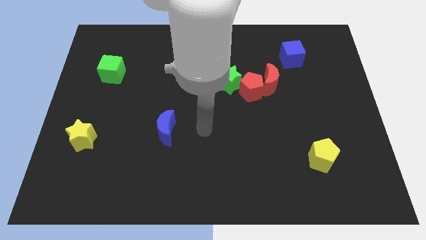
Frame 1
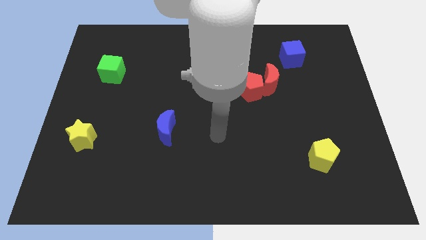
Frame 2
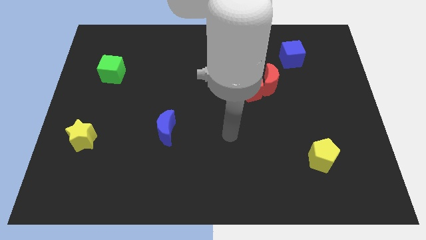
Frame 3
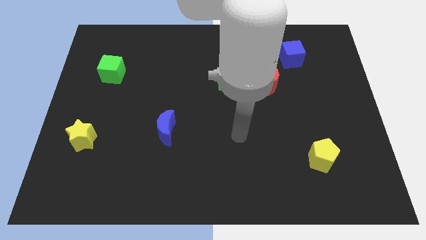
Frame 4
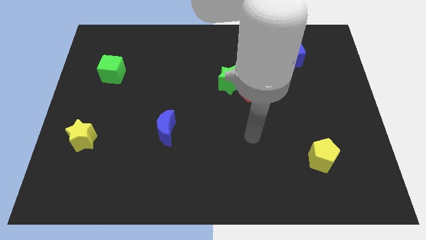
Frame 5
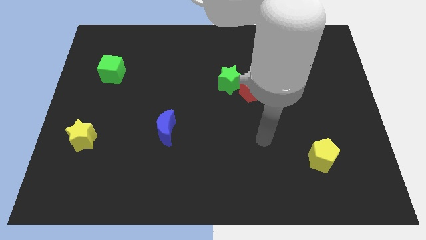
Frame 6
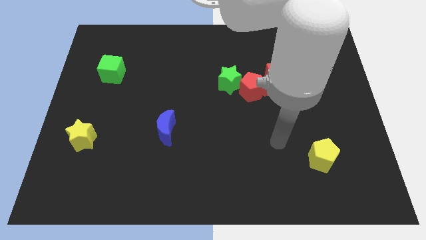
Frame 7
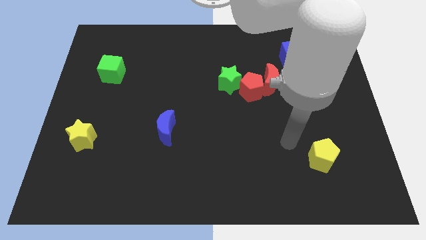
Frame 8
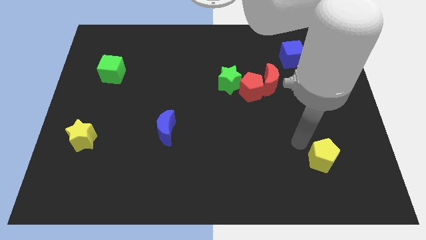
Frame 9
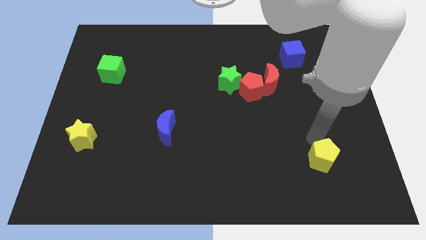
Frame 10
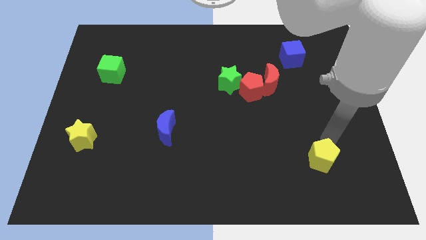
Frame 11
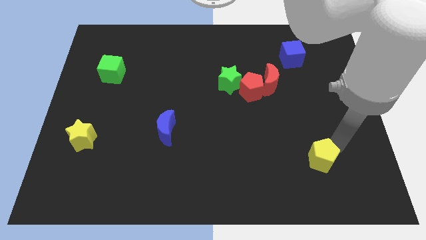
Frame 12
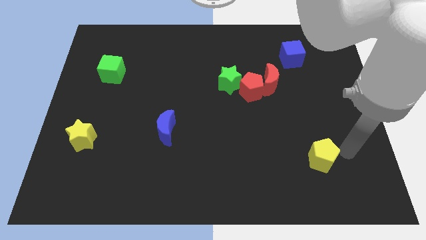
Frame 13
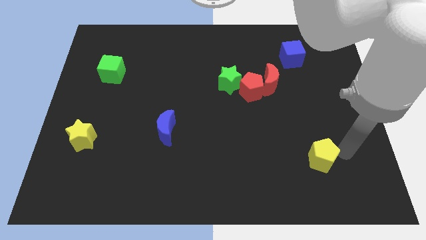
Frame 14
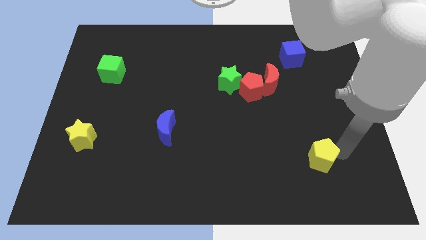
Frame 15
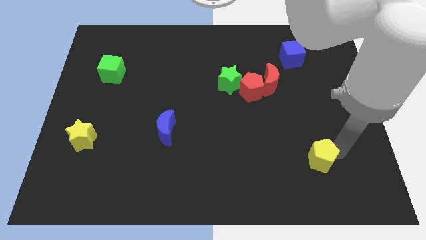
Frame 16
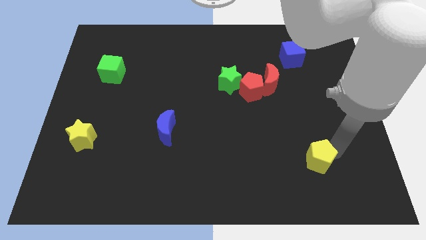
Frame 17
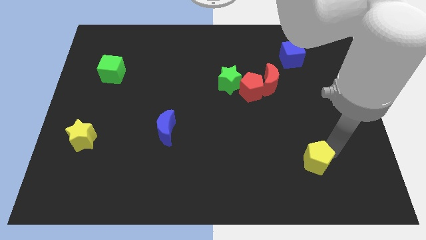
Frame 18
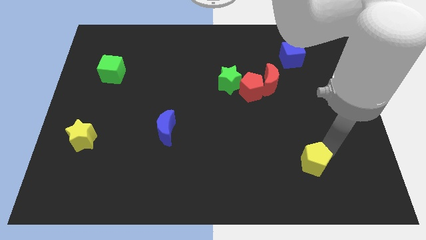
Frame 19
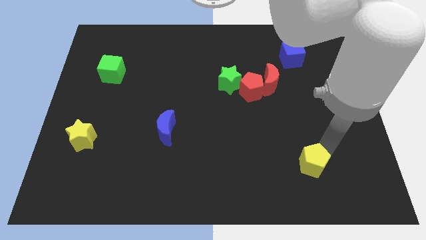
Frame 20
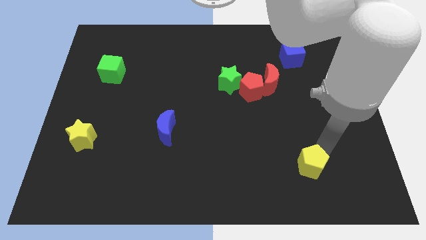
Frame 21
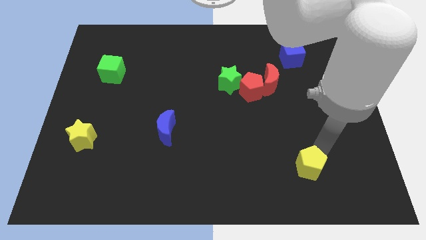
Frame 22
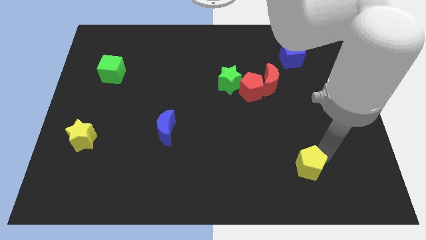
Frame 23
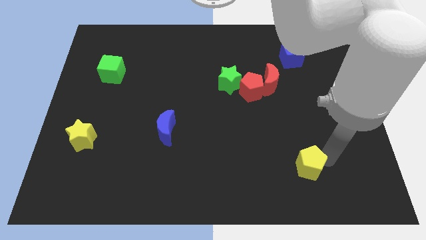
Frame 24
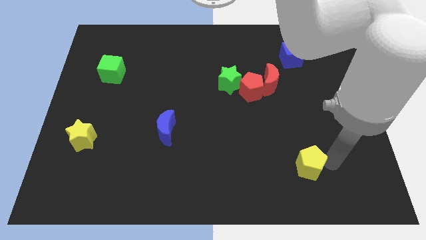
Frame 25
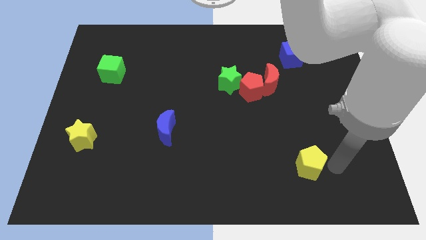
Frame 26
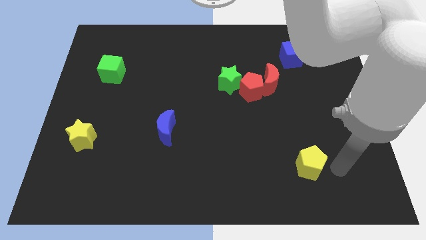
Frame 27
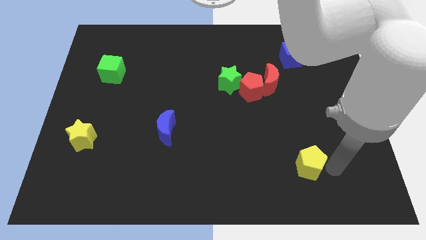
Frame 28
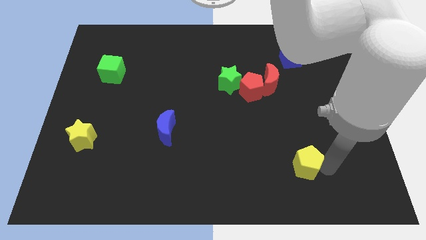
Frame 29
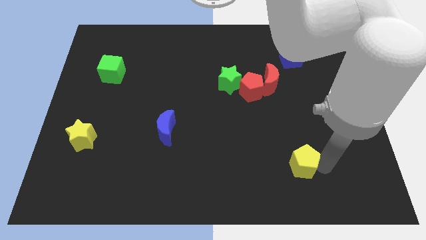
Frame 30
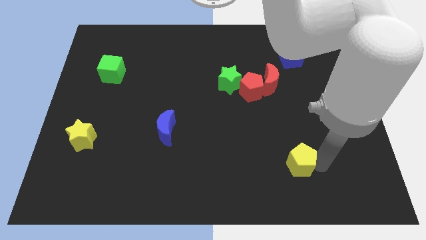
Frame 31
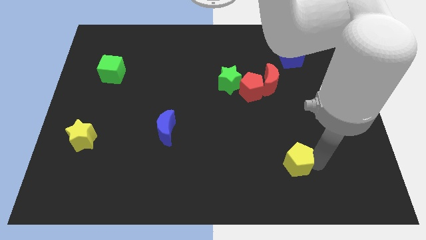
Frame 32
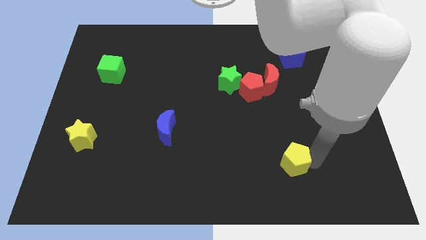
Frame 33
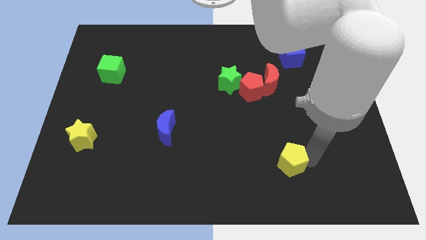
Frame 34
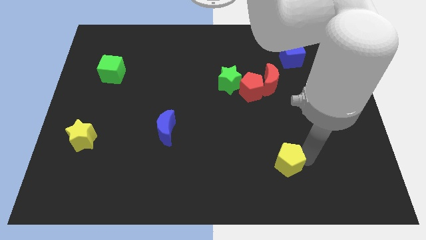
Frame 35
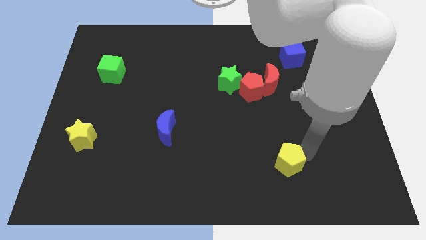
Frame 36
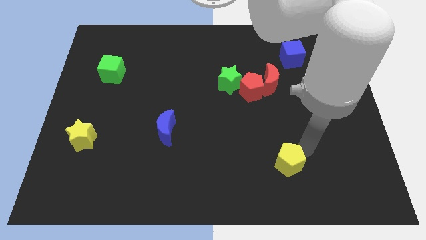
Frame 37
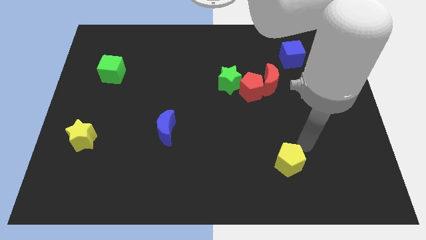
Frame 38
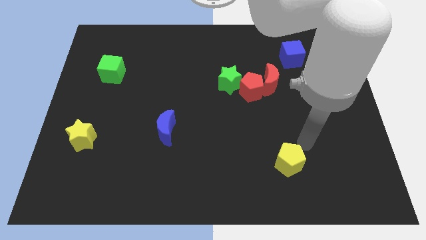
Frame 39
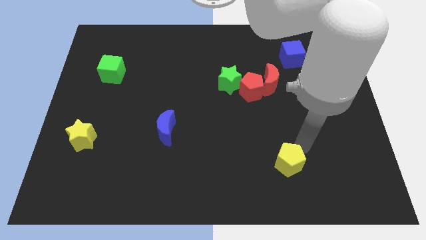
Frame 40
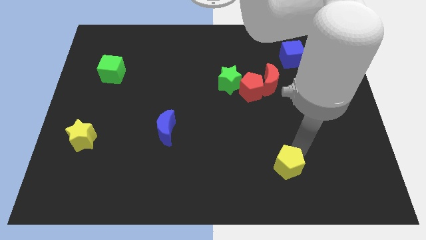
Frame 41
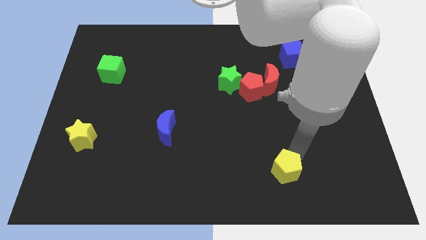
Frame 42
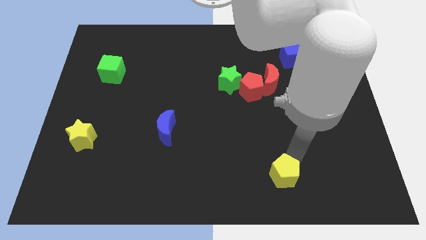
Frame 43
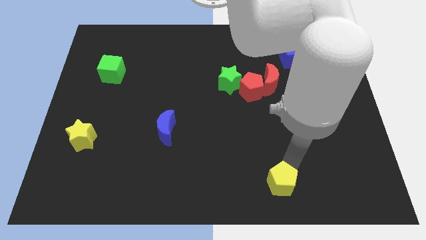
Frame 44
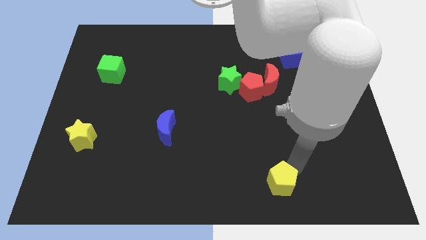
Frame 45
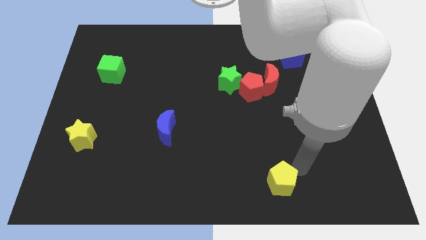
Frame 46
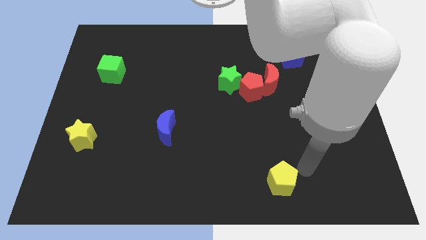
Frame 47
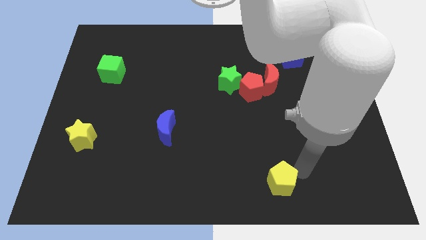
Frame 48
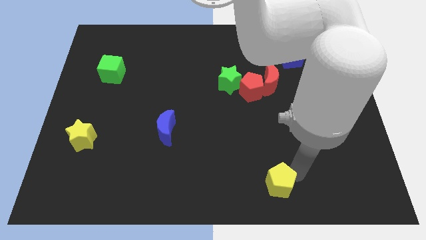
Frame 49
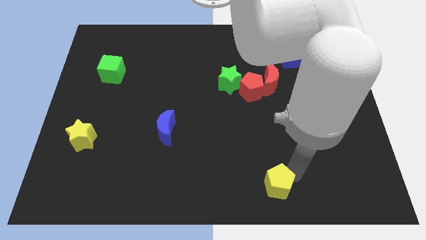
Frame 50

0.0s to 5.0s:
push the yellow pentagon to the bottom side

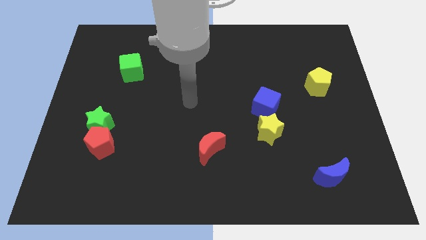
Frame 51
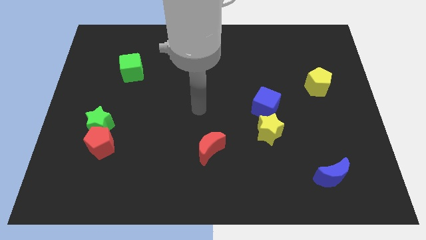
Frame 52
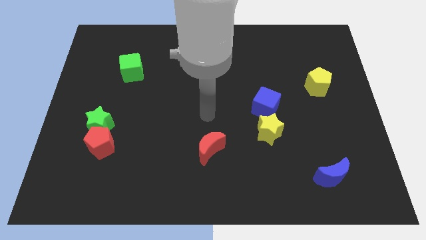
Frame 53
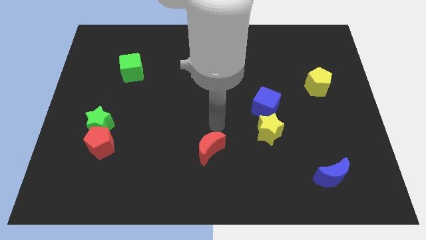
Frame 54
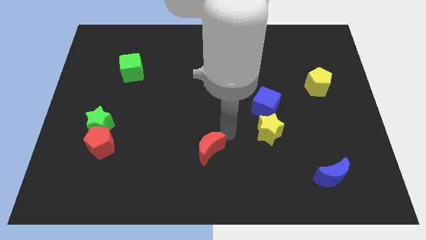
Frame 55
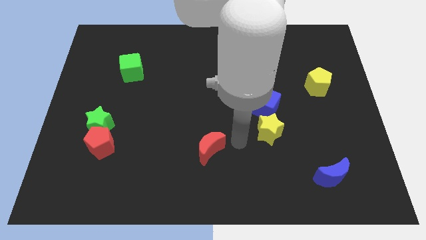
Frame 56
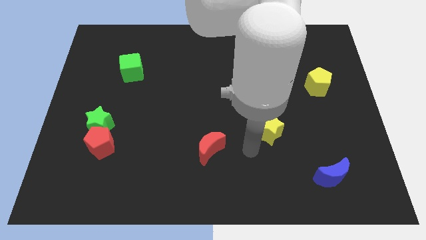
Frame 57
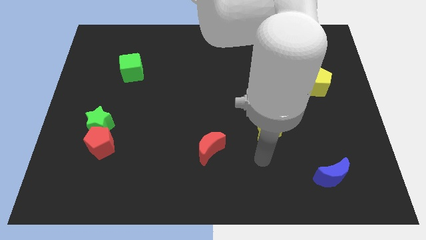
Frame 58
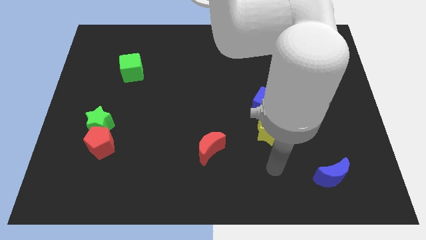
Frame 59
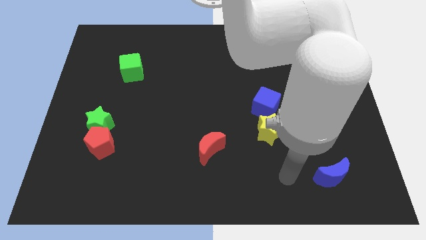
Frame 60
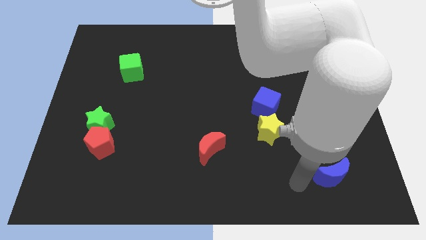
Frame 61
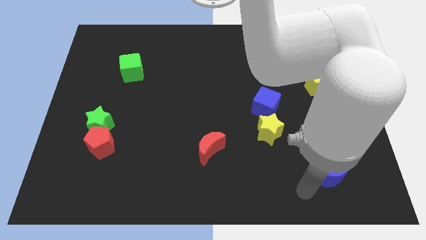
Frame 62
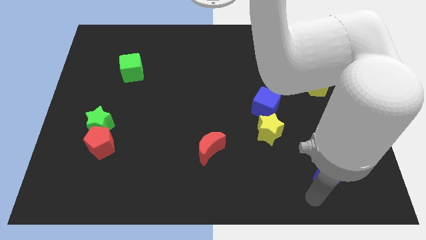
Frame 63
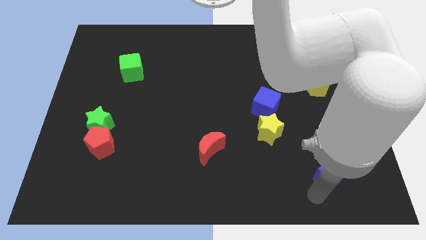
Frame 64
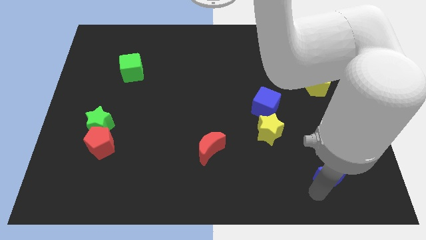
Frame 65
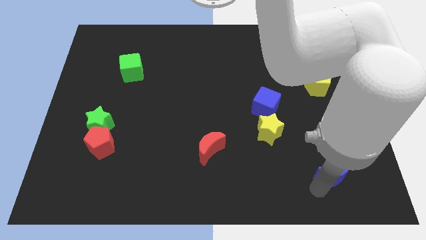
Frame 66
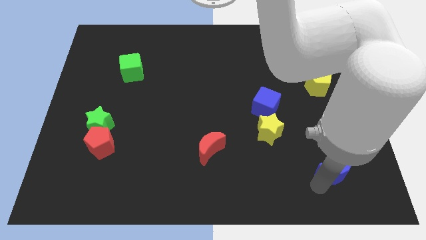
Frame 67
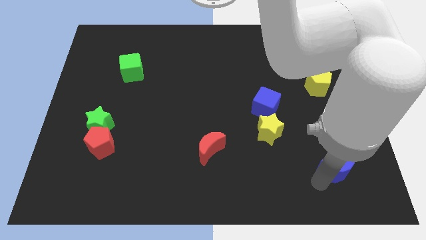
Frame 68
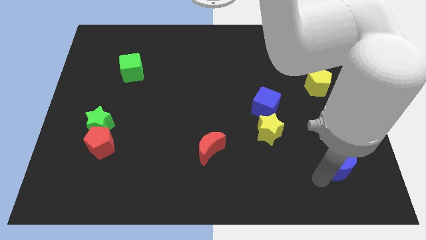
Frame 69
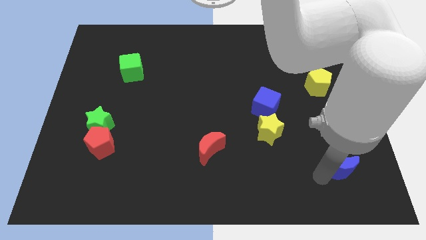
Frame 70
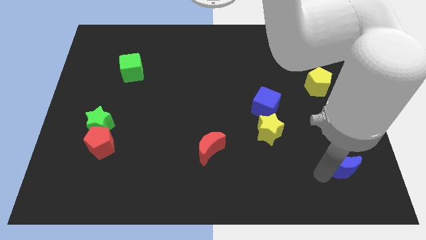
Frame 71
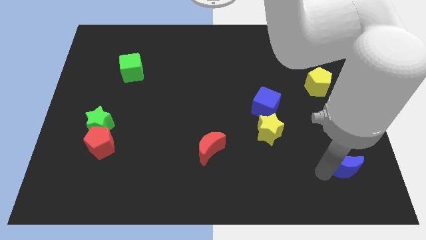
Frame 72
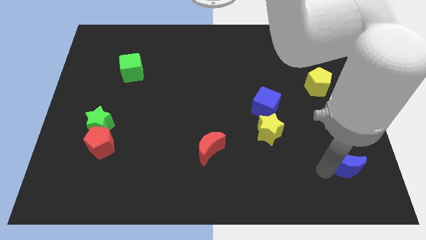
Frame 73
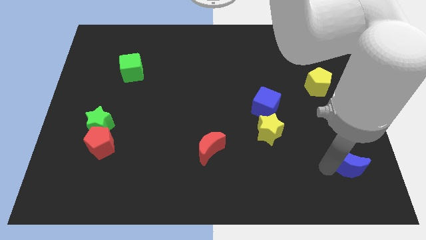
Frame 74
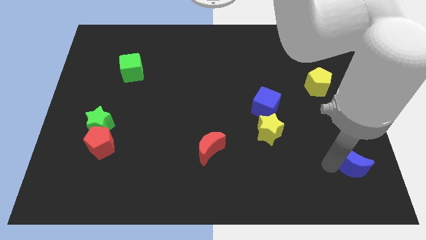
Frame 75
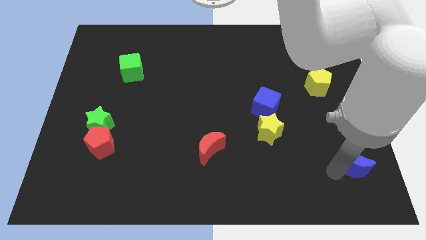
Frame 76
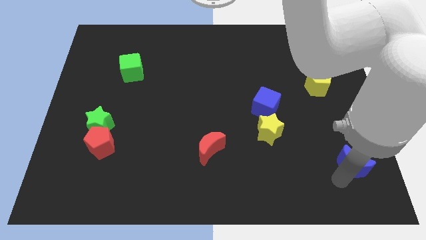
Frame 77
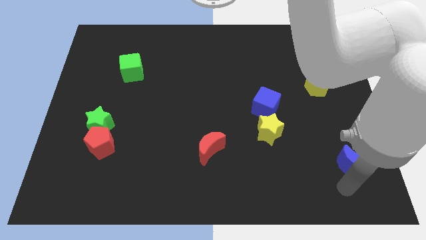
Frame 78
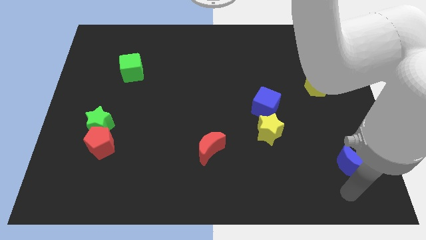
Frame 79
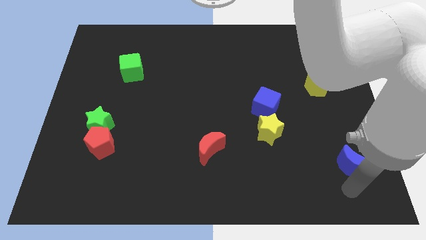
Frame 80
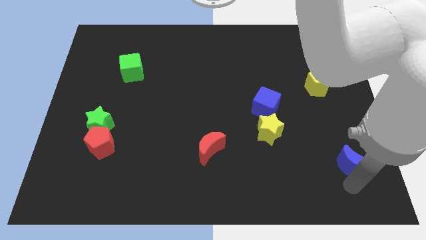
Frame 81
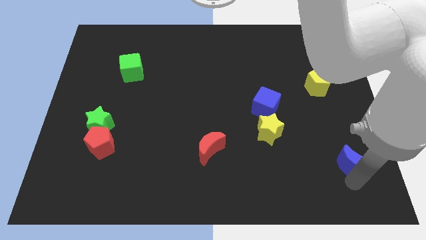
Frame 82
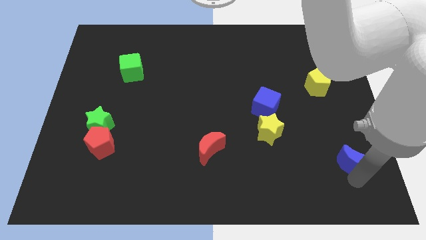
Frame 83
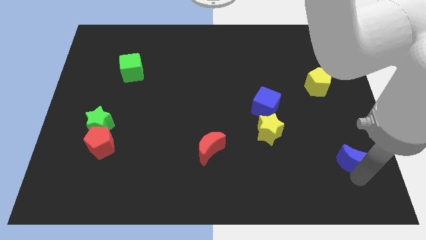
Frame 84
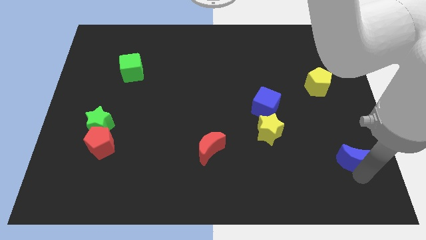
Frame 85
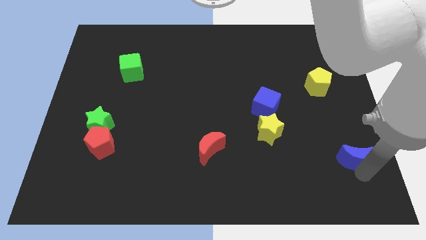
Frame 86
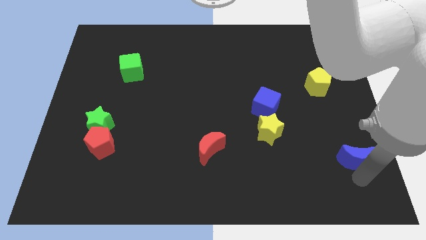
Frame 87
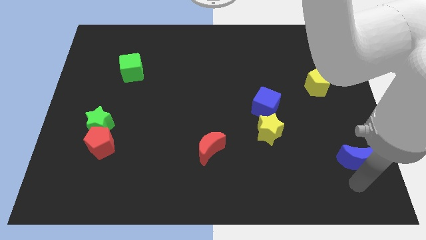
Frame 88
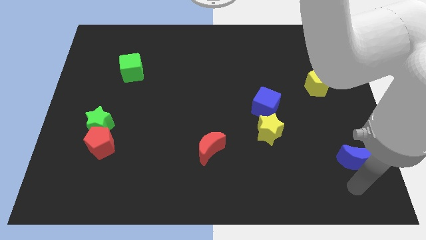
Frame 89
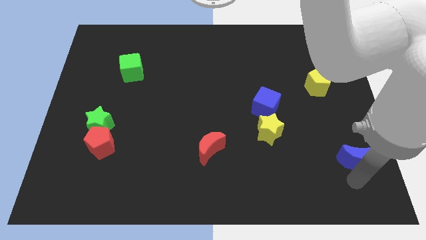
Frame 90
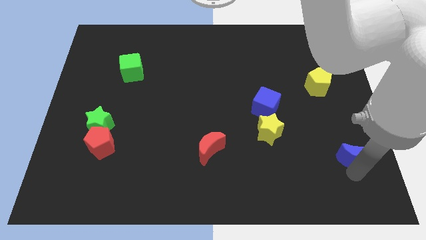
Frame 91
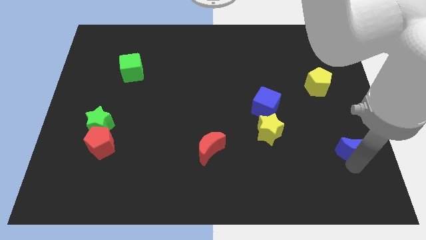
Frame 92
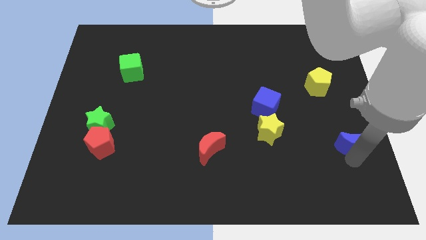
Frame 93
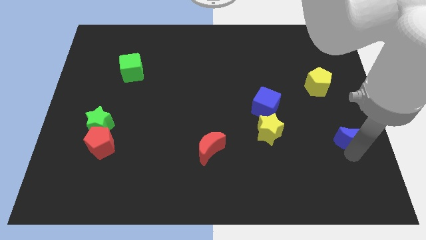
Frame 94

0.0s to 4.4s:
put the blue moon to the center right
